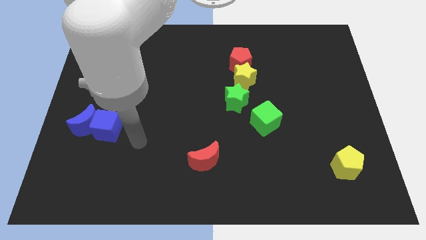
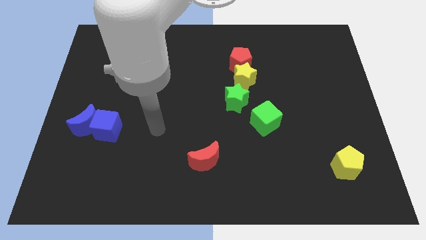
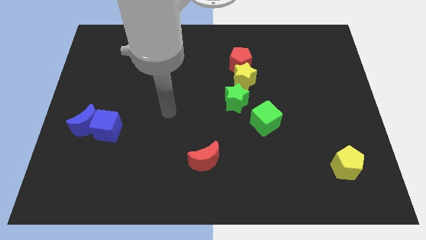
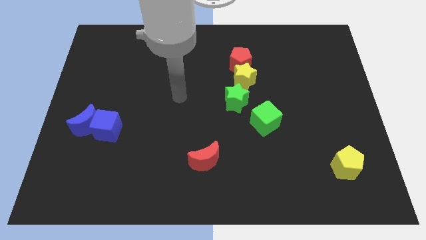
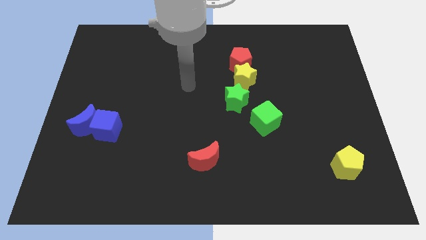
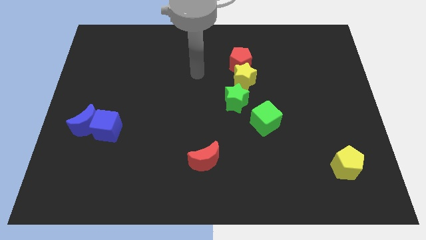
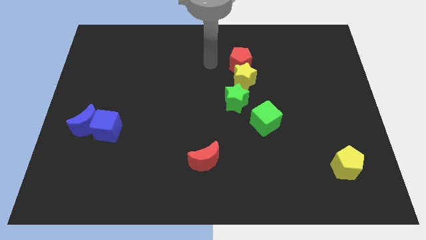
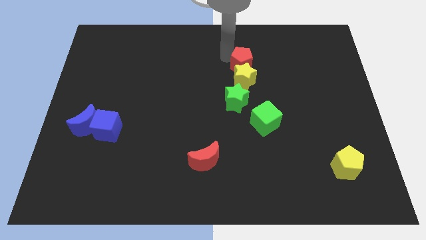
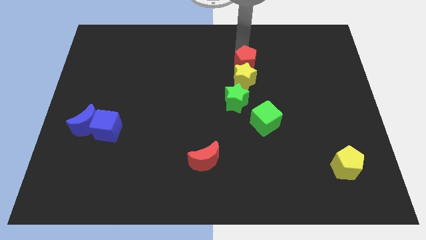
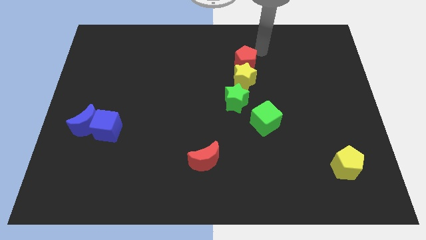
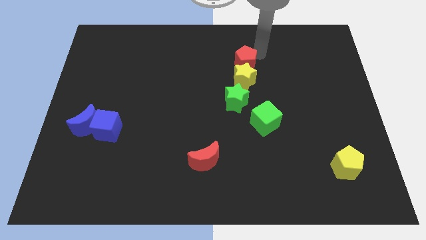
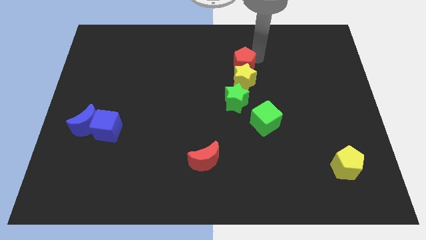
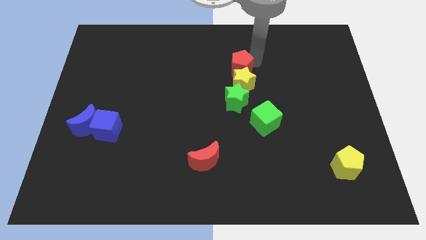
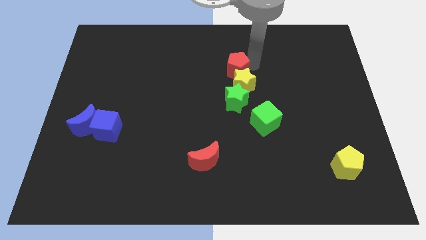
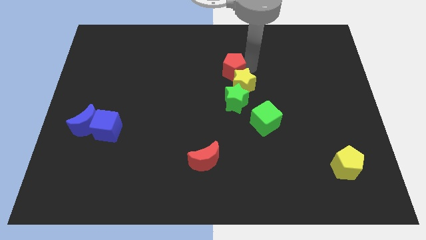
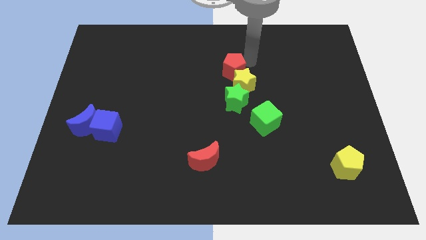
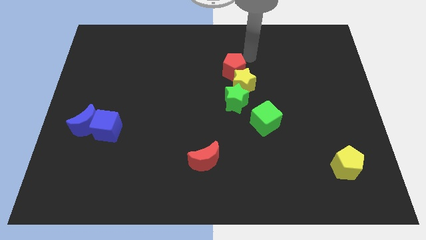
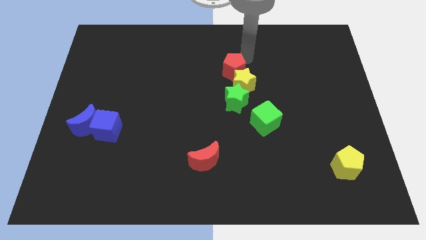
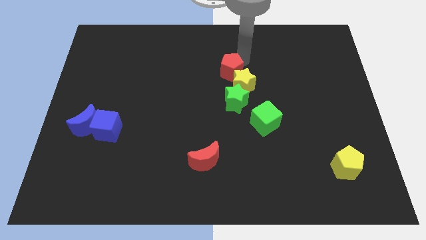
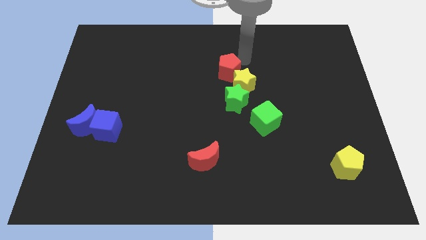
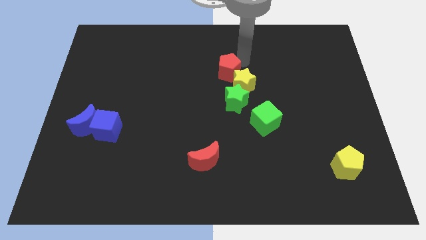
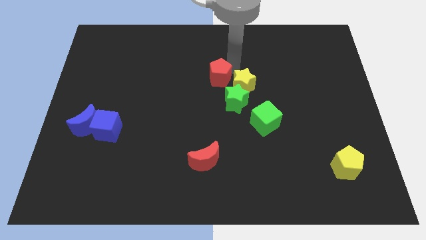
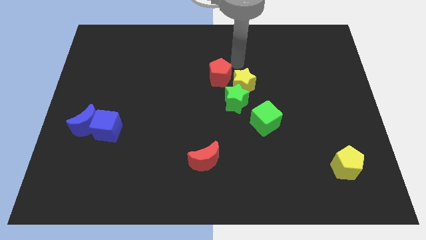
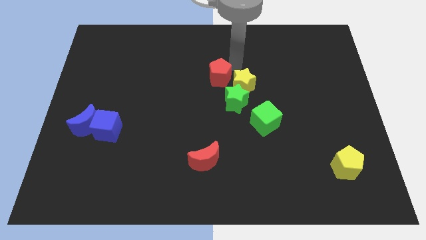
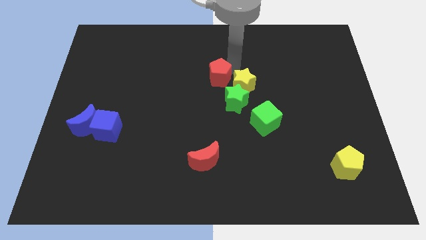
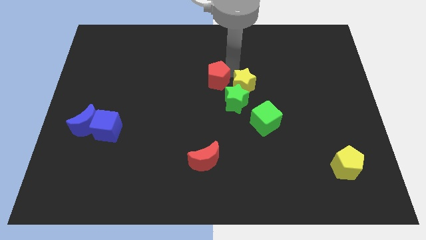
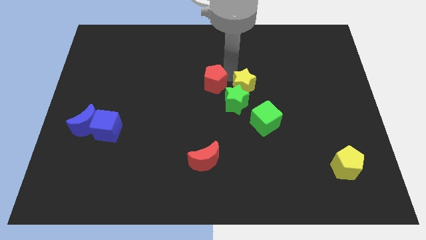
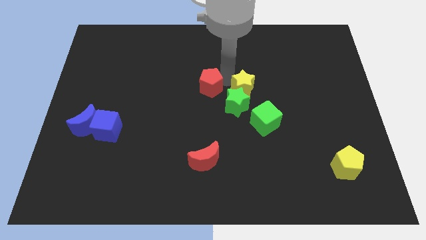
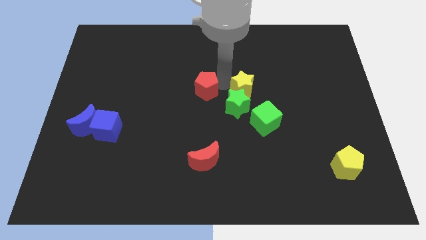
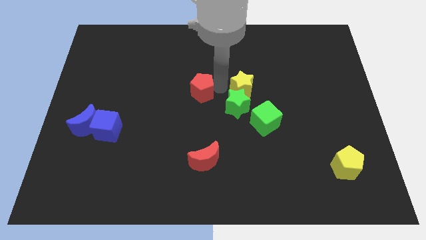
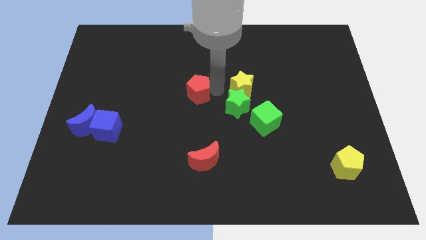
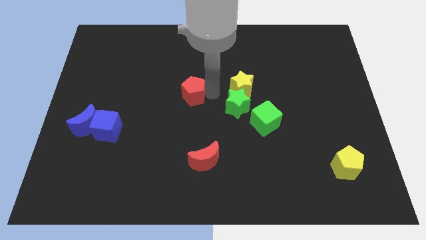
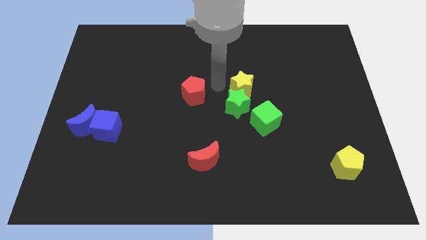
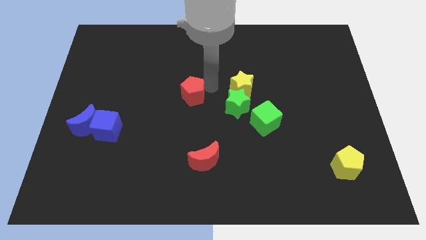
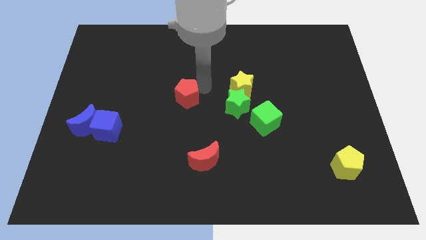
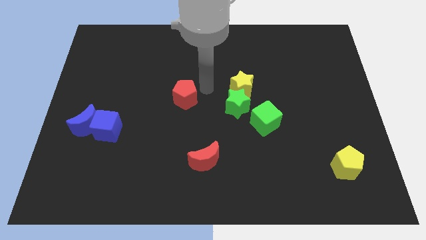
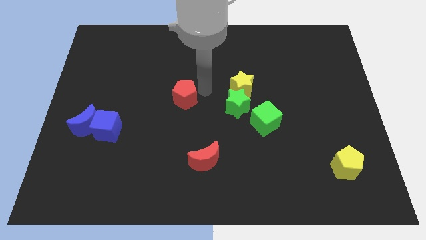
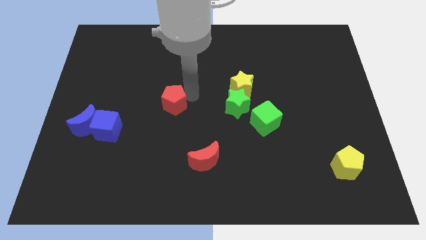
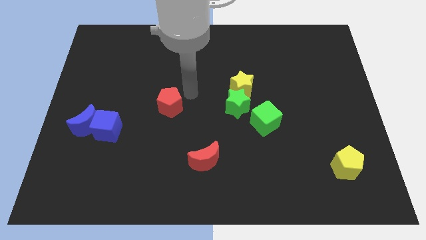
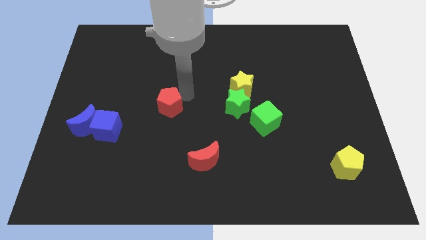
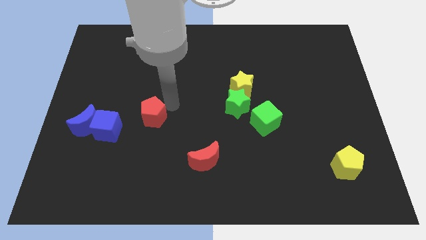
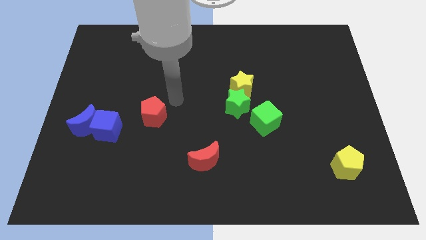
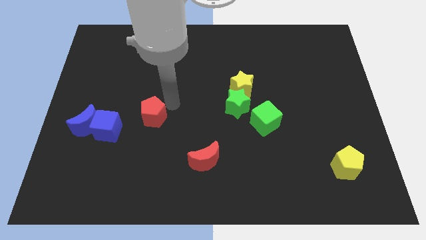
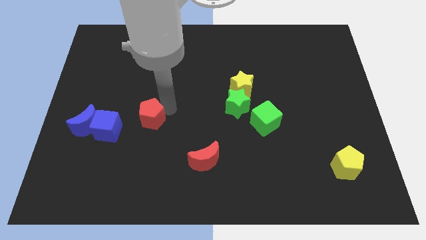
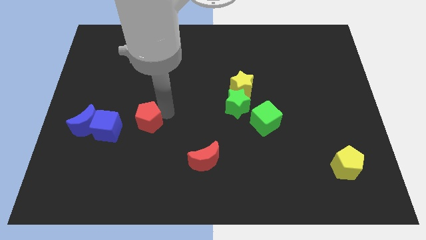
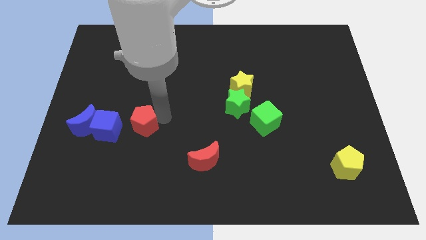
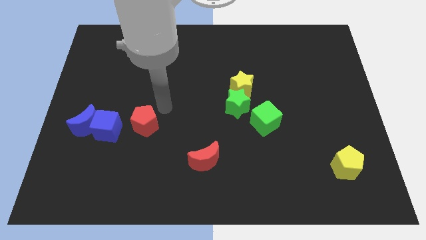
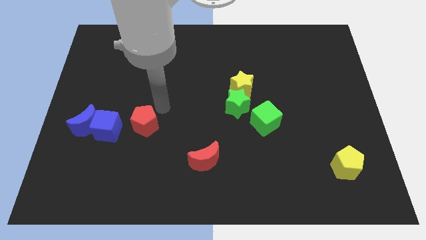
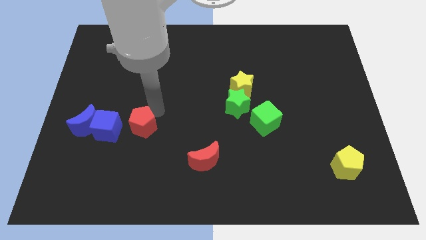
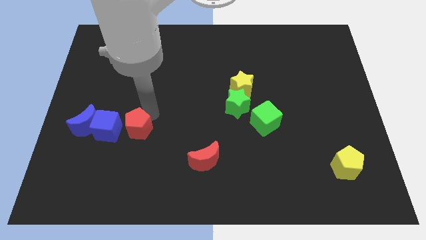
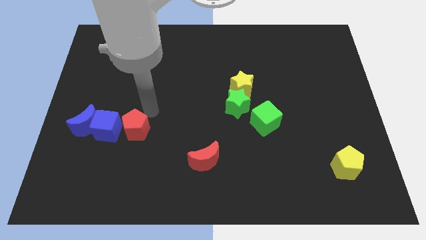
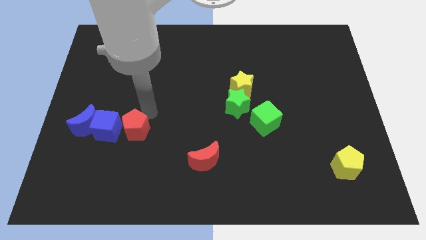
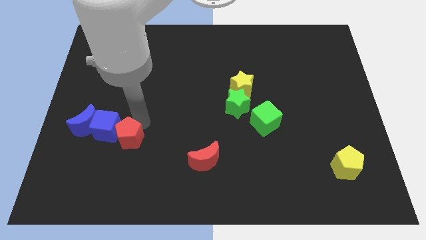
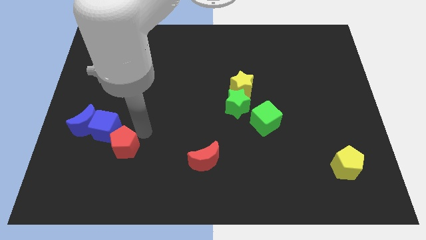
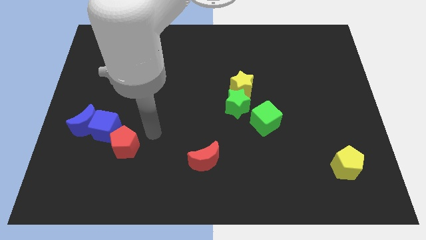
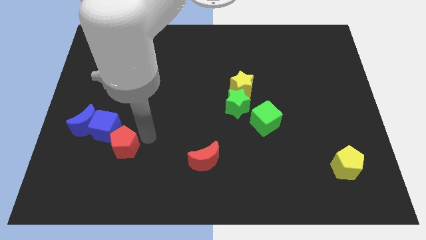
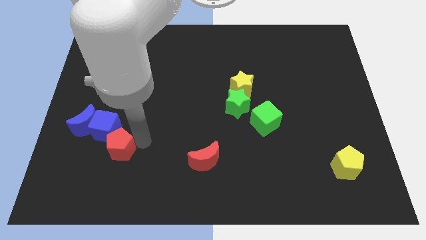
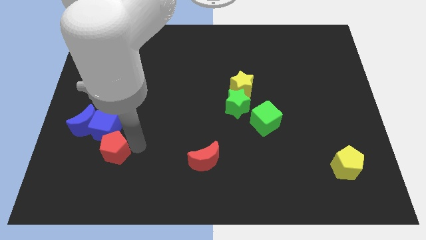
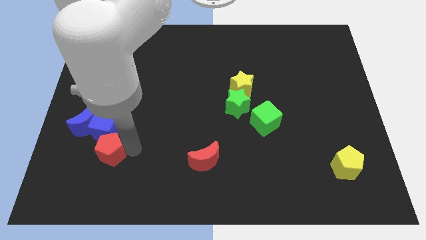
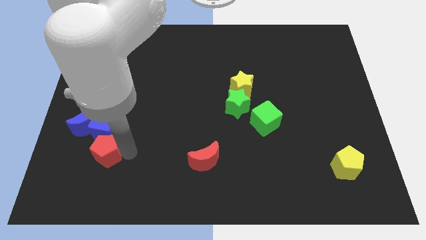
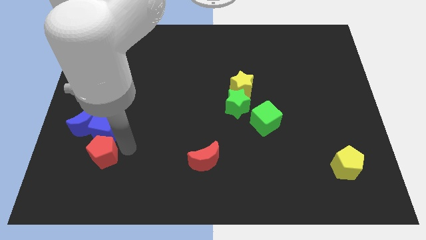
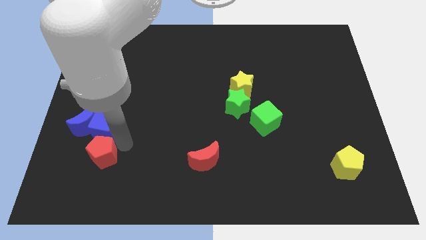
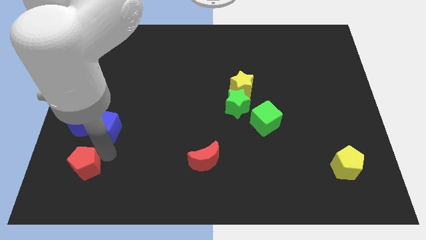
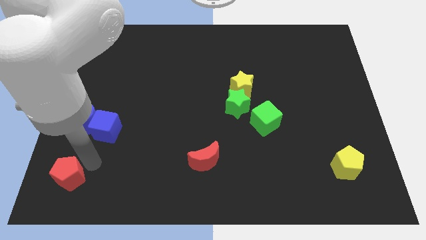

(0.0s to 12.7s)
put the red pentagon to the bottom left corner

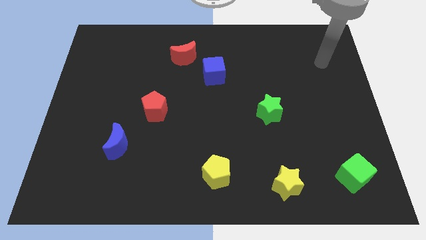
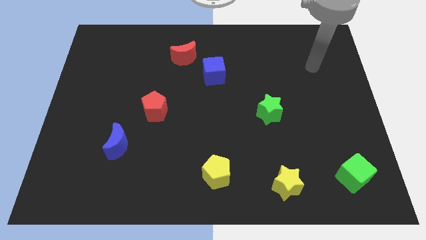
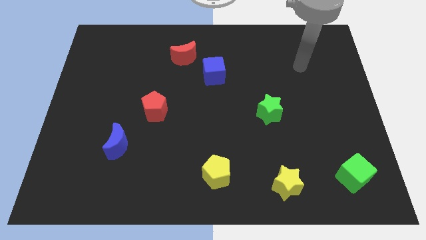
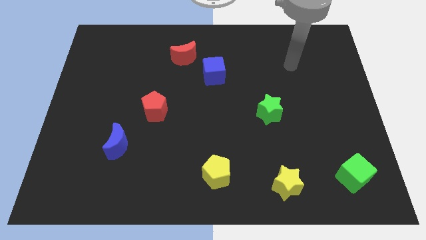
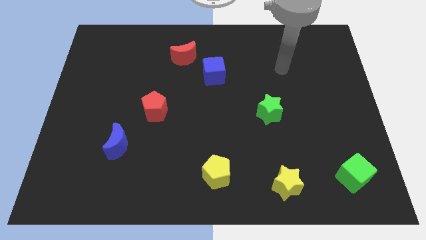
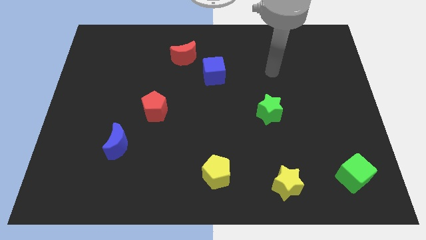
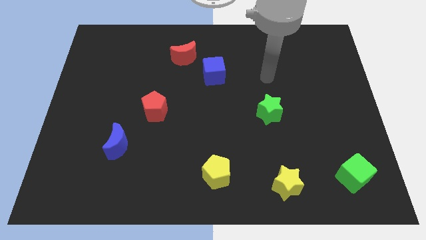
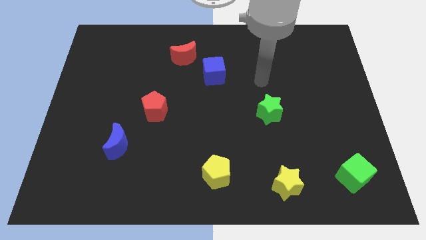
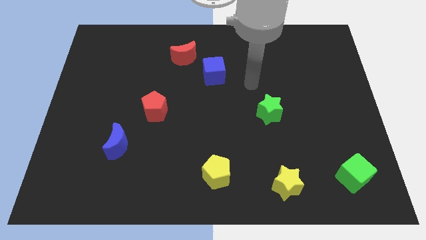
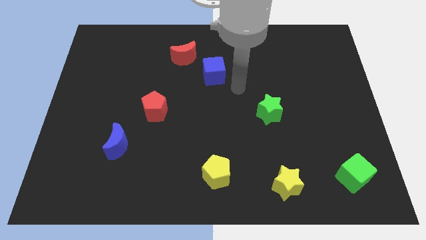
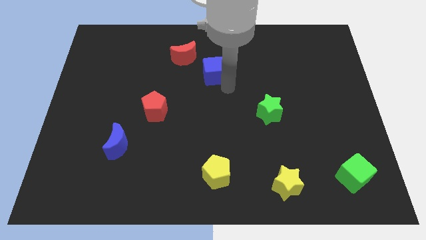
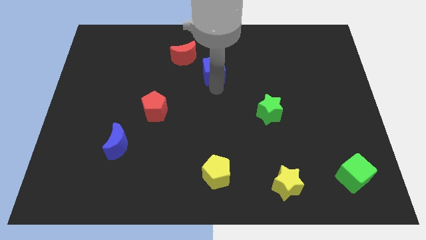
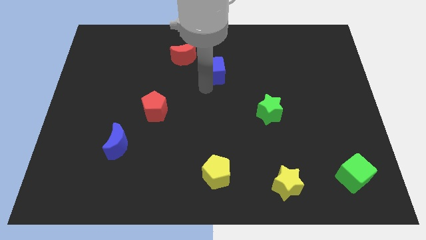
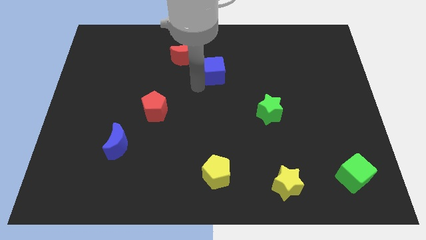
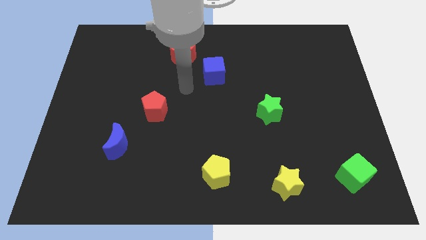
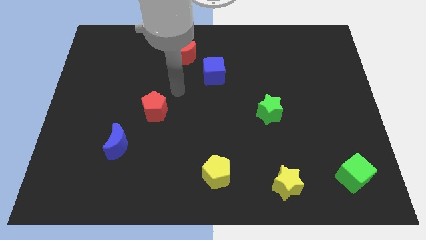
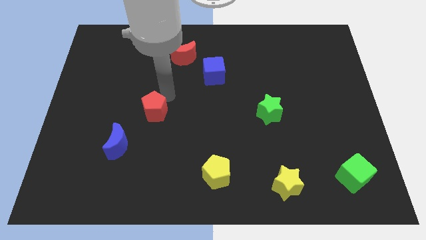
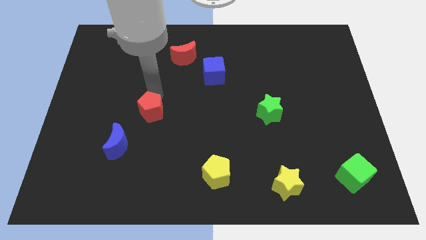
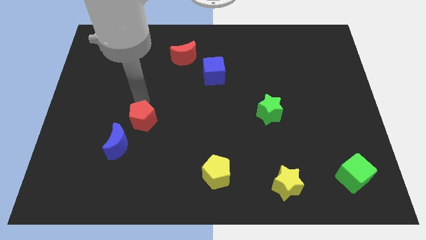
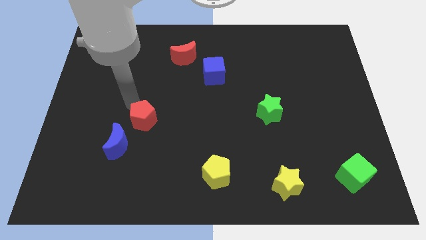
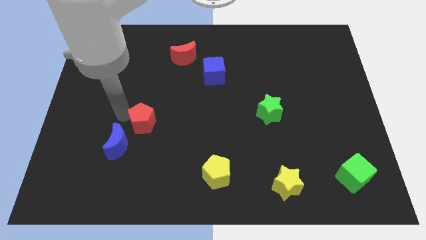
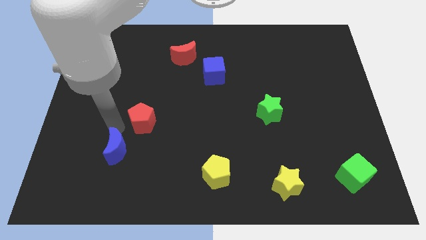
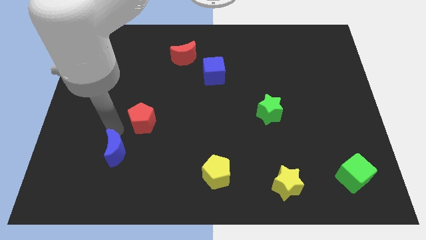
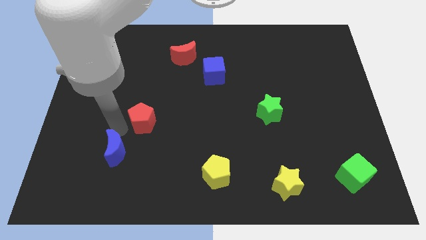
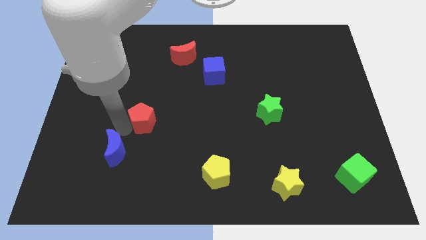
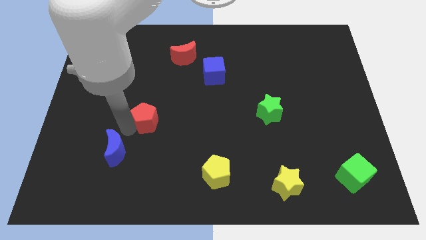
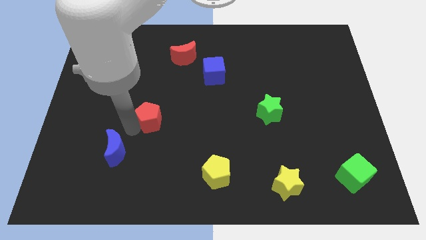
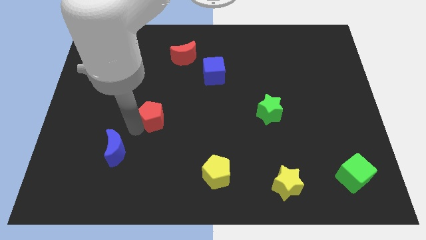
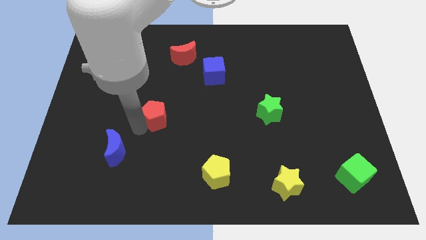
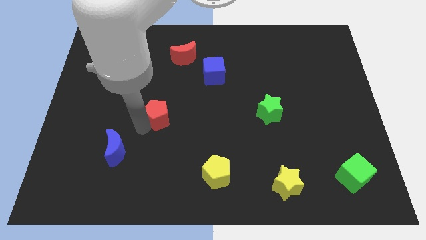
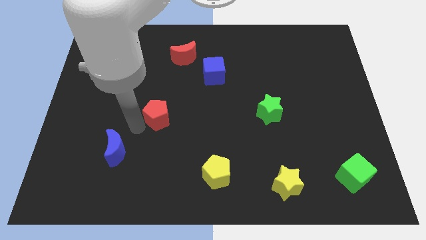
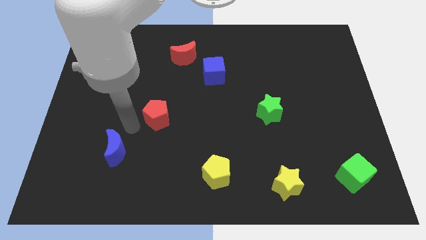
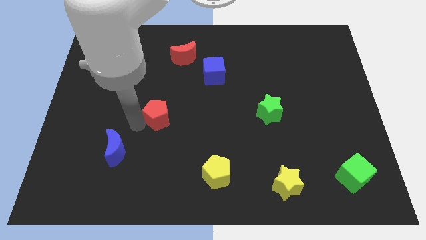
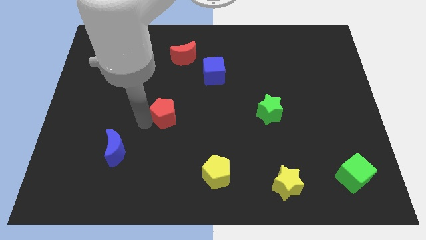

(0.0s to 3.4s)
slide the red pentagon to the center of the board
